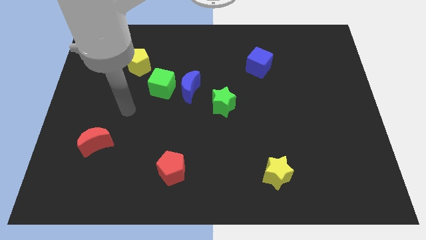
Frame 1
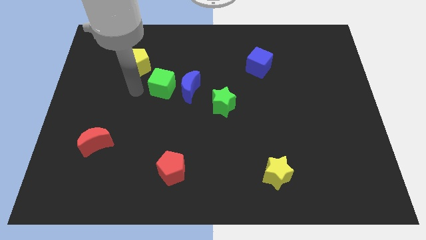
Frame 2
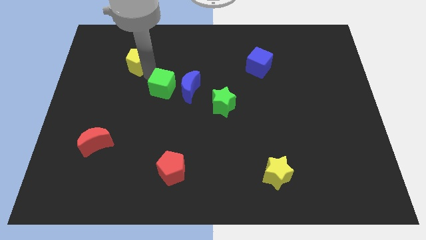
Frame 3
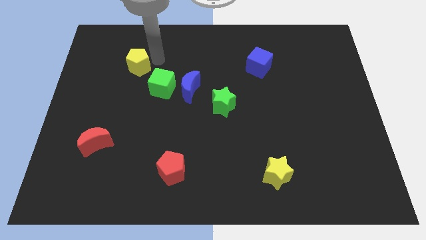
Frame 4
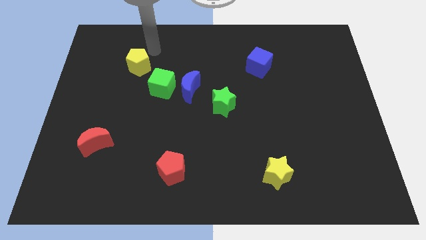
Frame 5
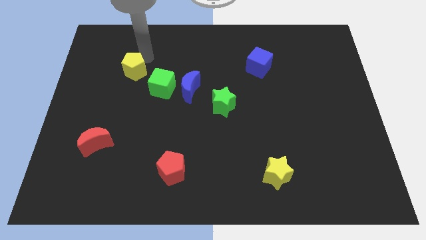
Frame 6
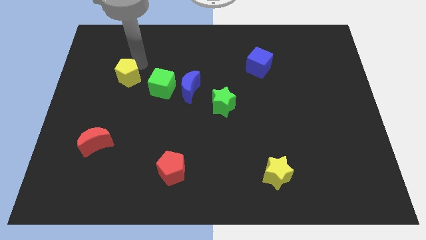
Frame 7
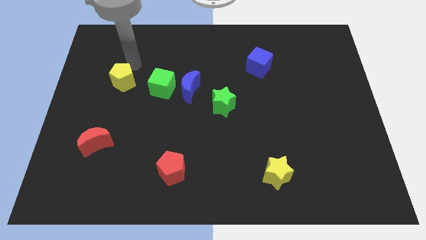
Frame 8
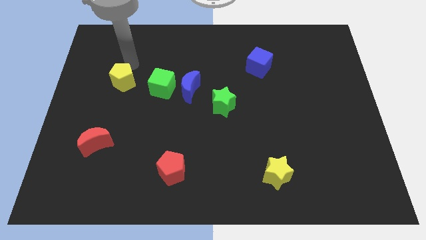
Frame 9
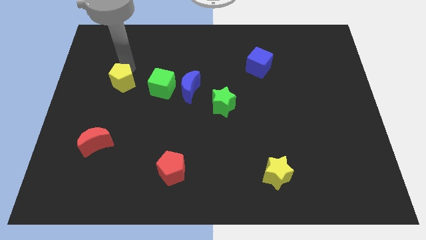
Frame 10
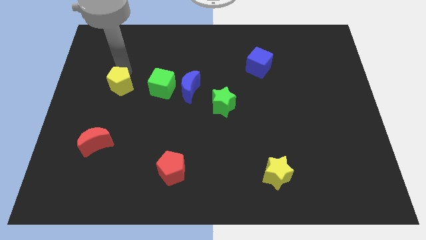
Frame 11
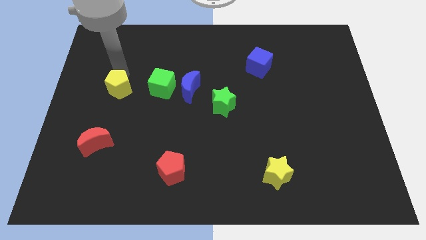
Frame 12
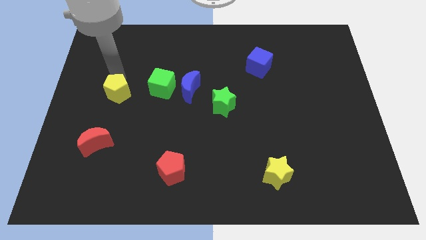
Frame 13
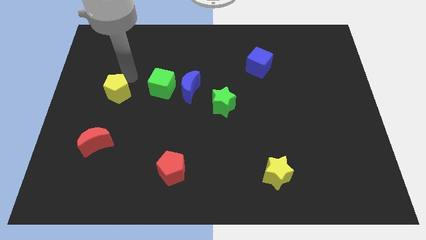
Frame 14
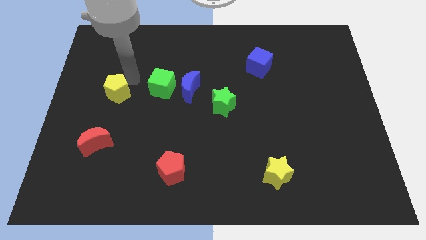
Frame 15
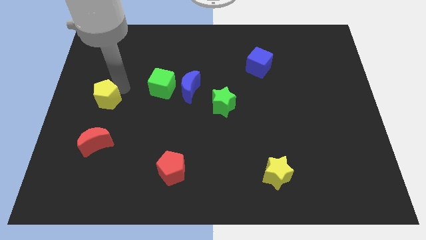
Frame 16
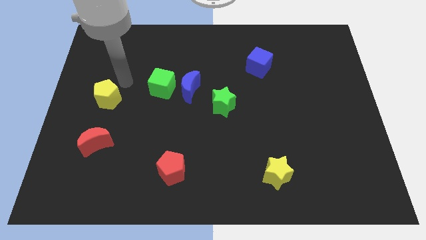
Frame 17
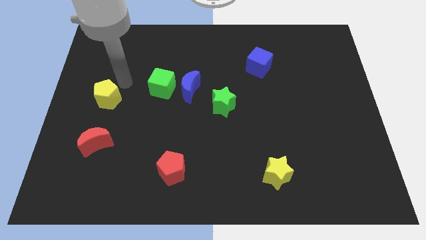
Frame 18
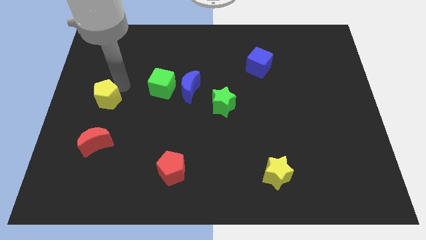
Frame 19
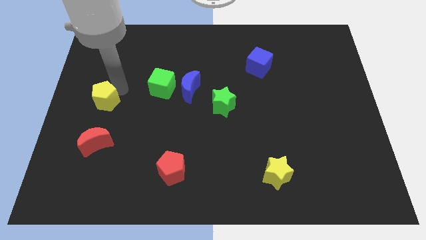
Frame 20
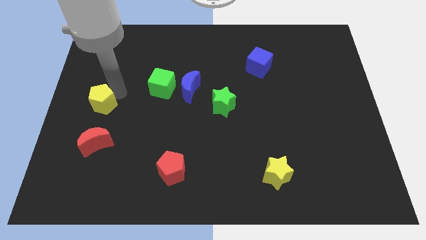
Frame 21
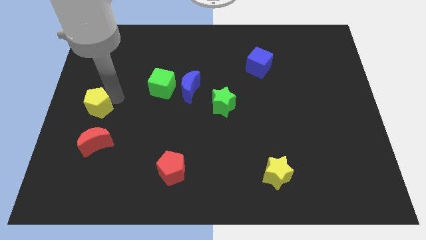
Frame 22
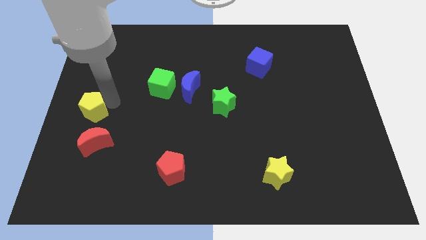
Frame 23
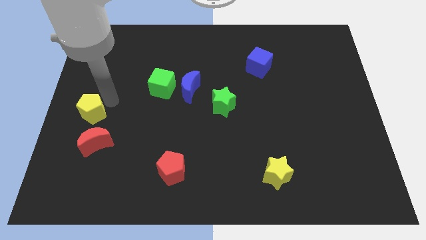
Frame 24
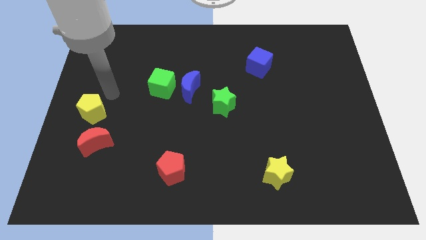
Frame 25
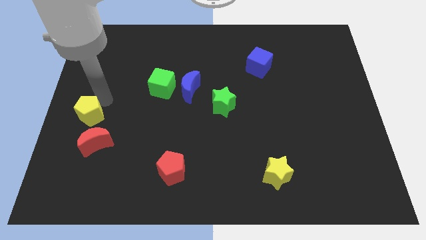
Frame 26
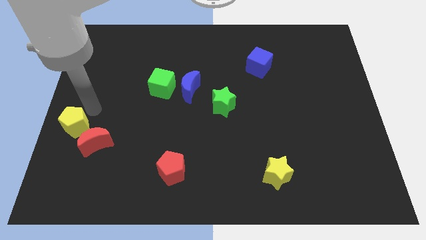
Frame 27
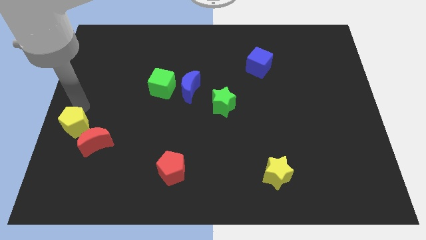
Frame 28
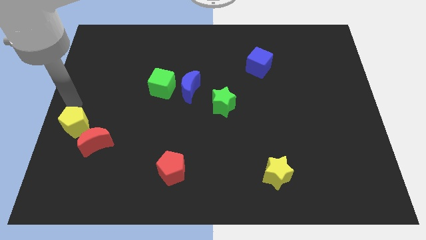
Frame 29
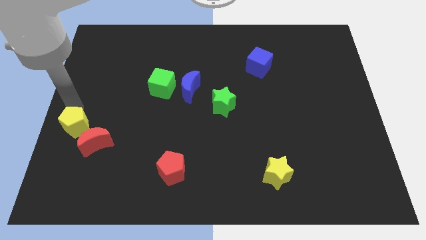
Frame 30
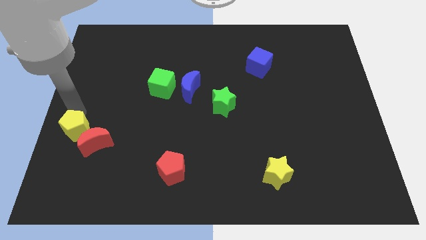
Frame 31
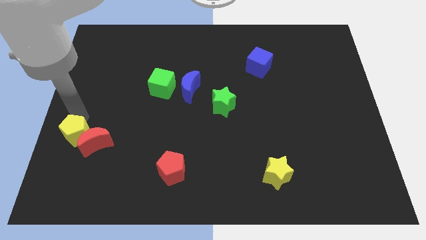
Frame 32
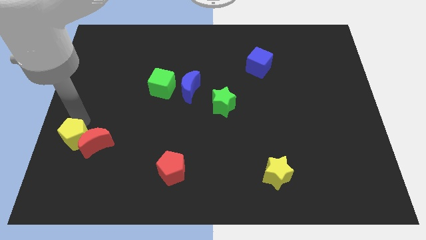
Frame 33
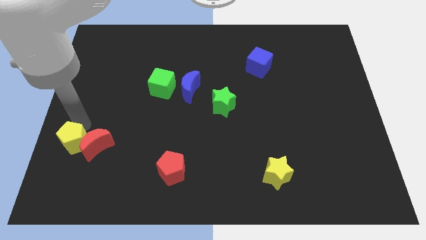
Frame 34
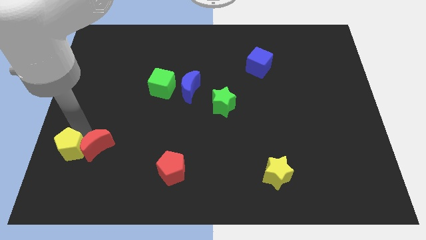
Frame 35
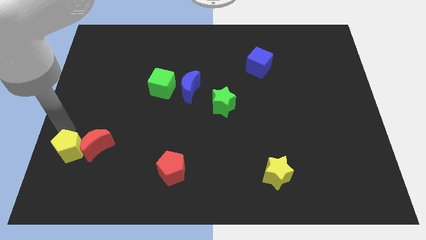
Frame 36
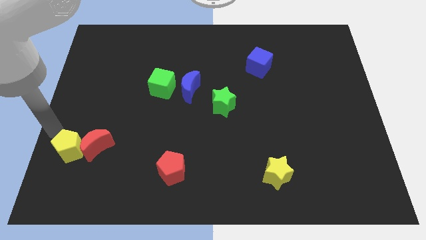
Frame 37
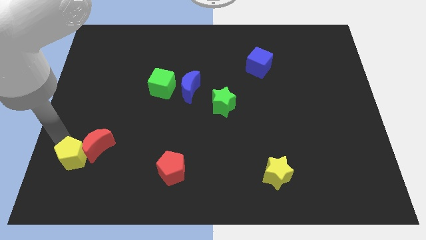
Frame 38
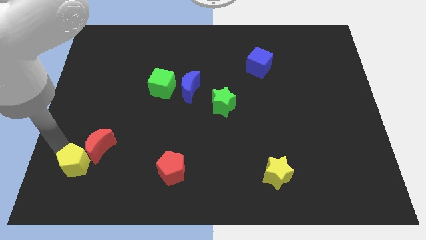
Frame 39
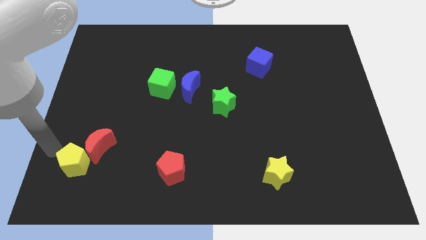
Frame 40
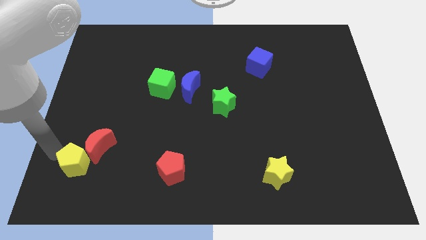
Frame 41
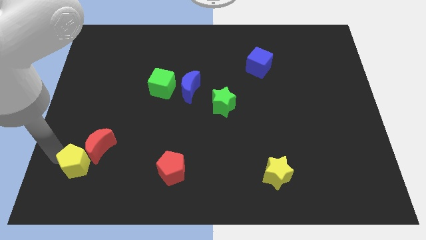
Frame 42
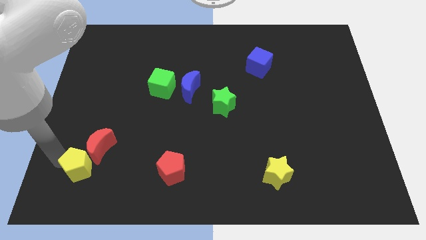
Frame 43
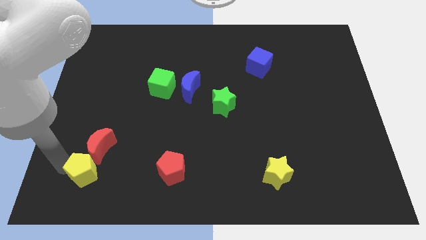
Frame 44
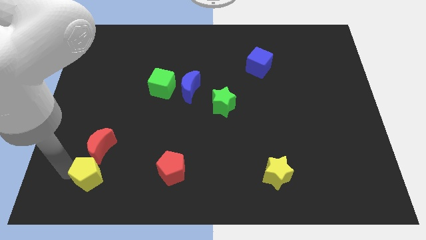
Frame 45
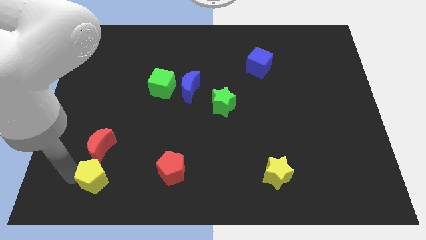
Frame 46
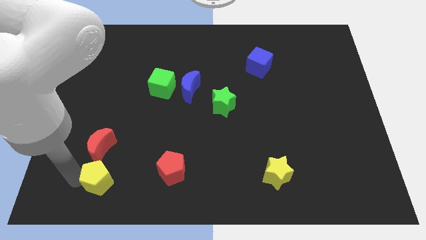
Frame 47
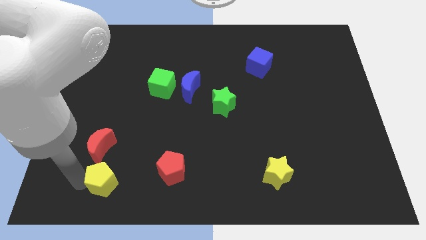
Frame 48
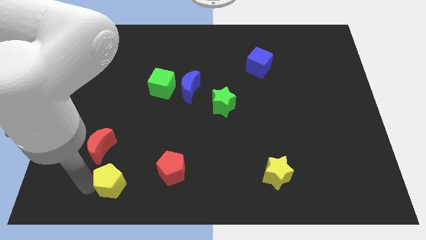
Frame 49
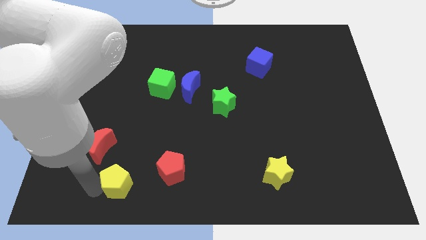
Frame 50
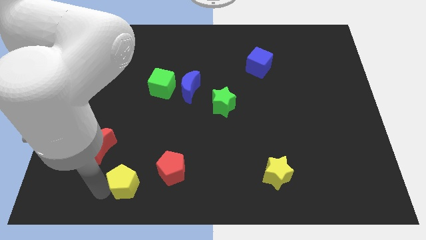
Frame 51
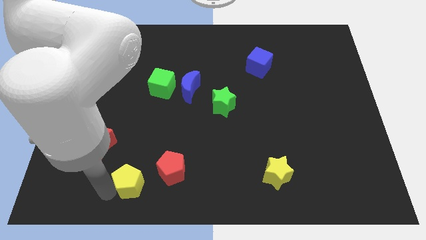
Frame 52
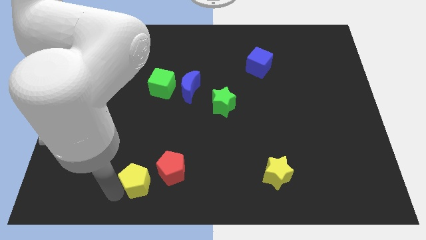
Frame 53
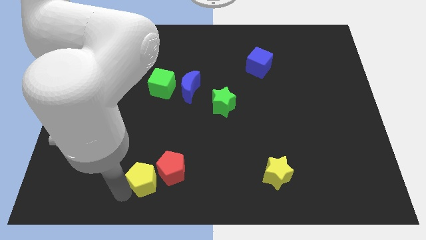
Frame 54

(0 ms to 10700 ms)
push the yellow pentagon towards the red pentagon

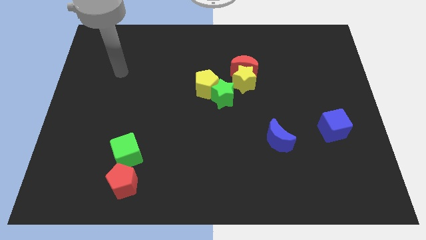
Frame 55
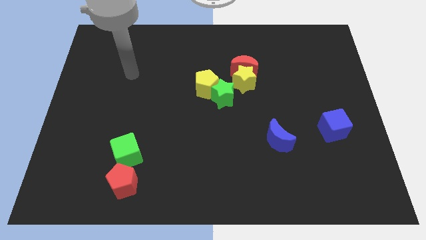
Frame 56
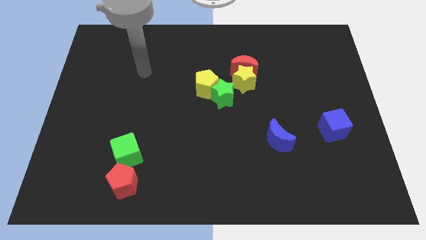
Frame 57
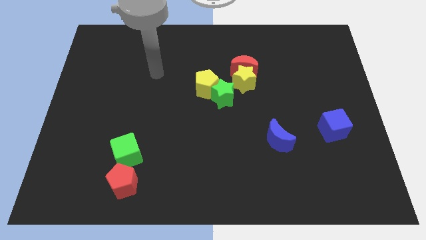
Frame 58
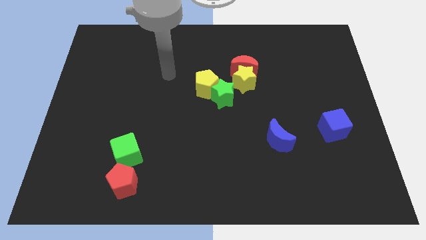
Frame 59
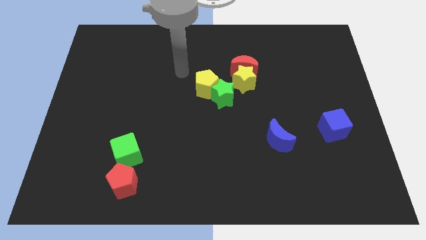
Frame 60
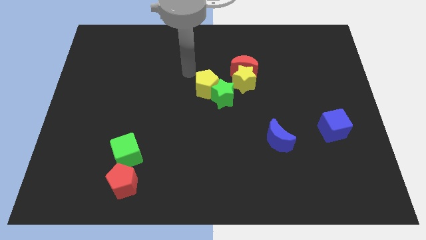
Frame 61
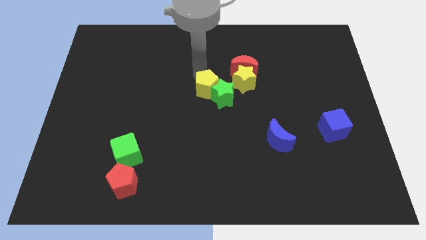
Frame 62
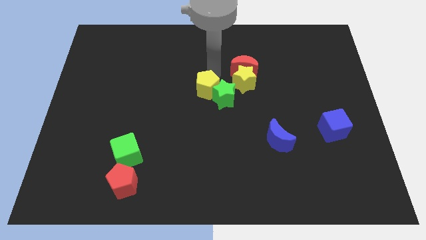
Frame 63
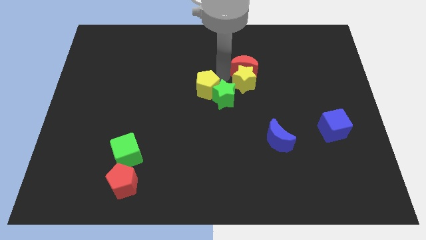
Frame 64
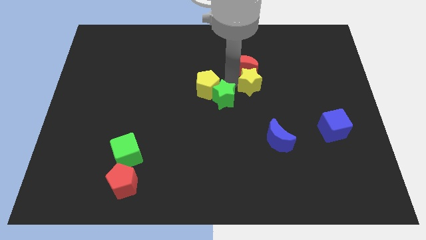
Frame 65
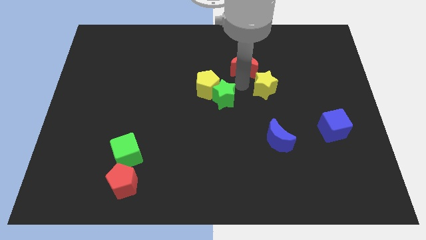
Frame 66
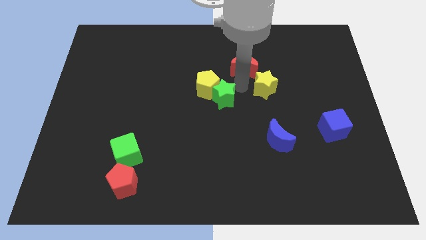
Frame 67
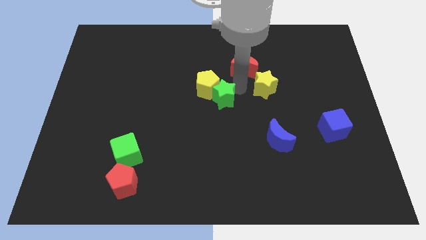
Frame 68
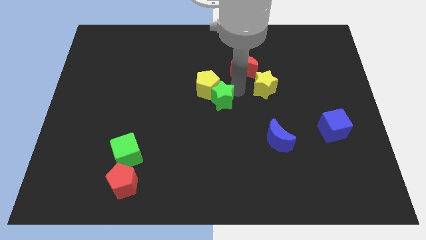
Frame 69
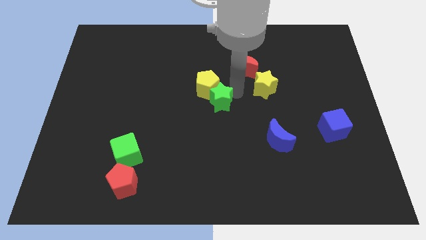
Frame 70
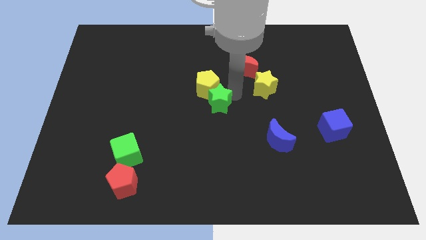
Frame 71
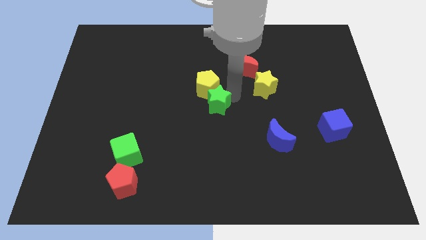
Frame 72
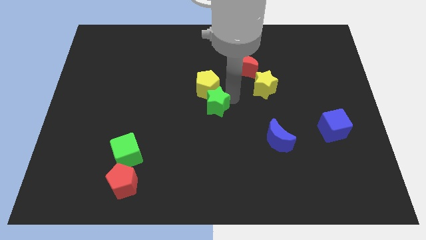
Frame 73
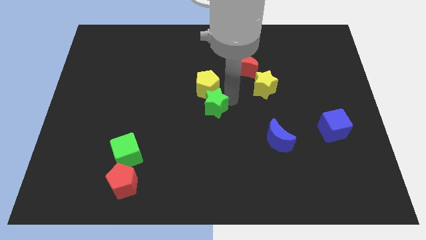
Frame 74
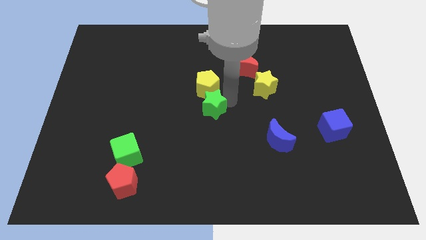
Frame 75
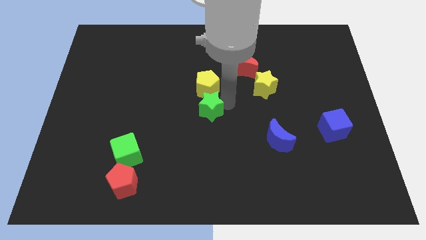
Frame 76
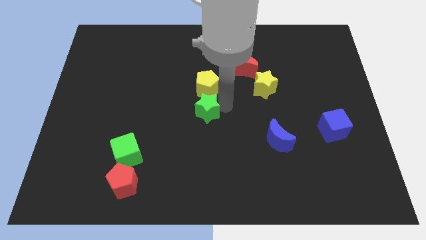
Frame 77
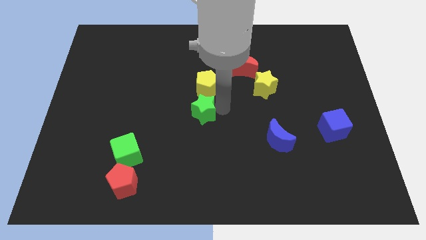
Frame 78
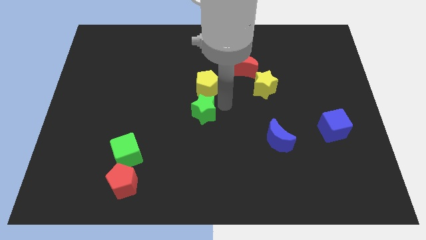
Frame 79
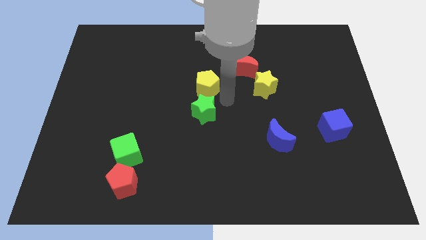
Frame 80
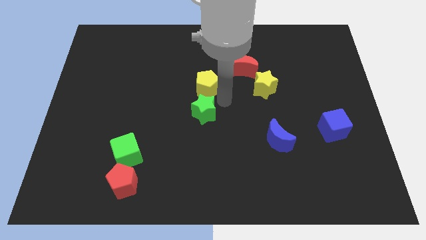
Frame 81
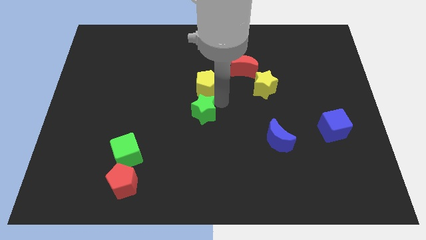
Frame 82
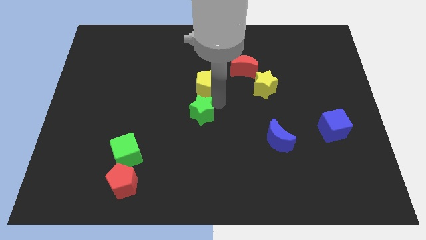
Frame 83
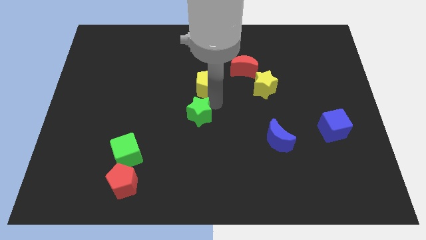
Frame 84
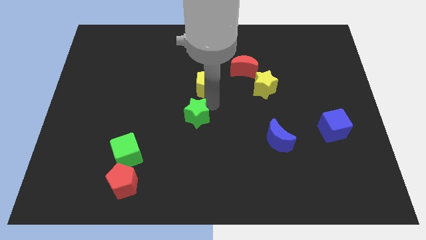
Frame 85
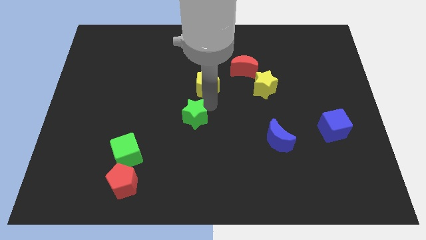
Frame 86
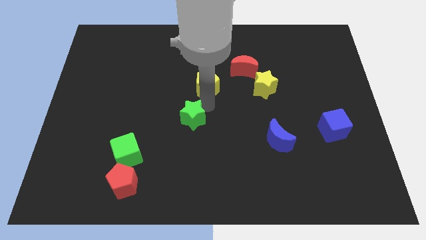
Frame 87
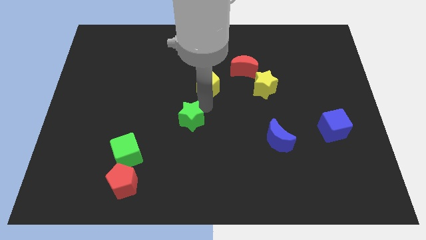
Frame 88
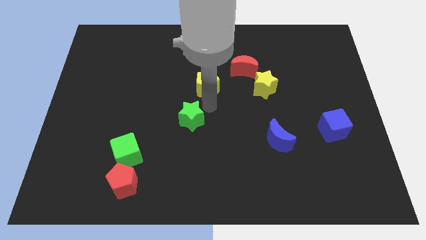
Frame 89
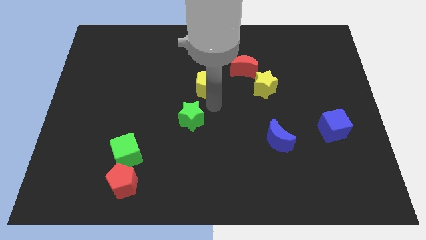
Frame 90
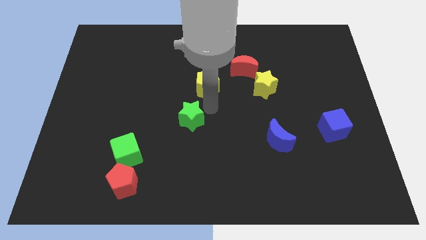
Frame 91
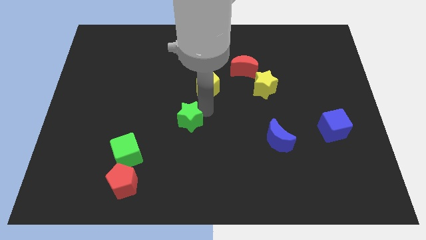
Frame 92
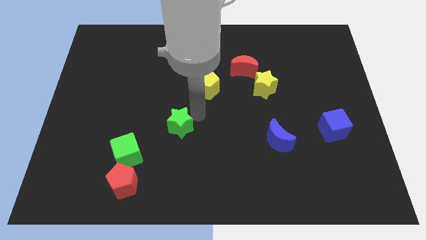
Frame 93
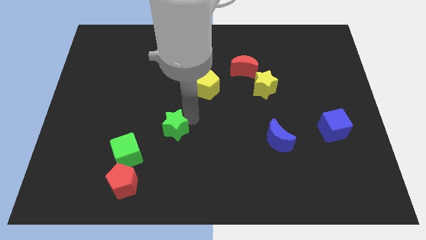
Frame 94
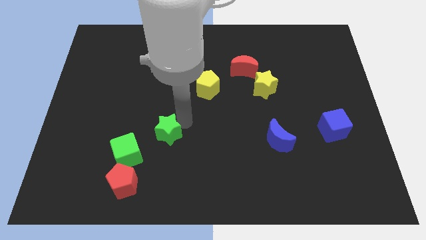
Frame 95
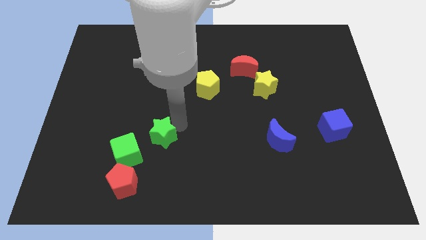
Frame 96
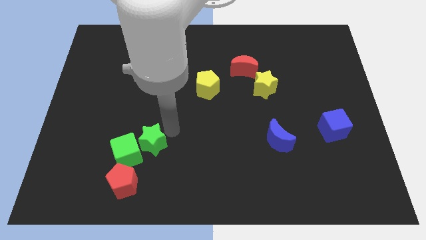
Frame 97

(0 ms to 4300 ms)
move the green star close to the green cube
